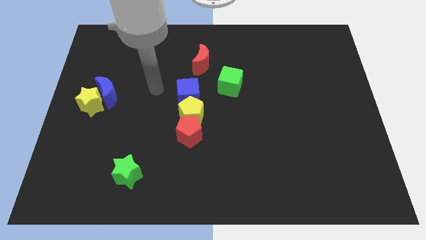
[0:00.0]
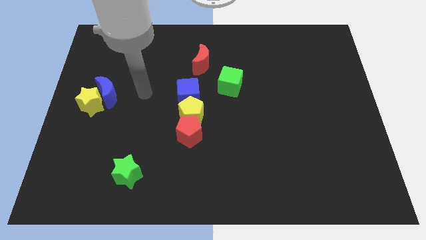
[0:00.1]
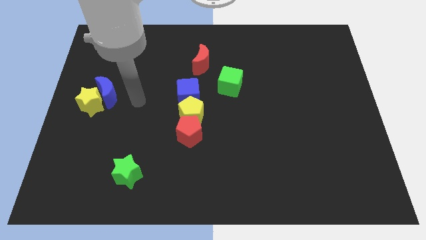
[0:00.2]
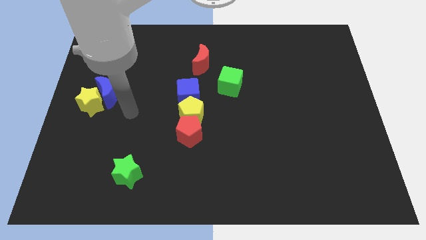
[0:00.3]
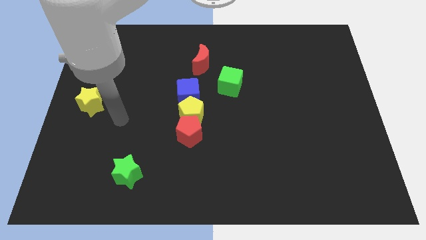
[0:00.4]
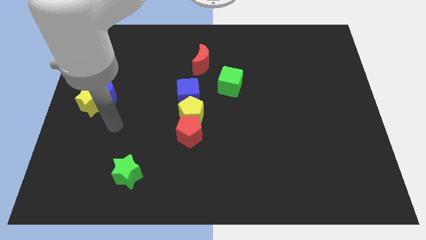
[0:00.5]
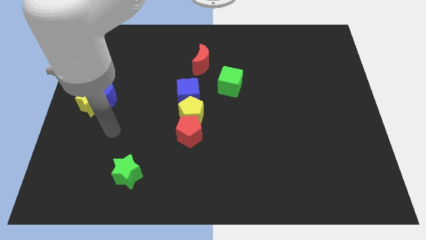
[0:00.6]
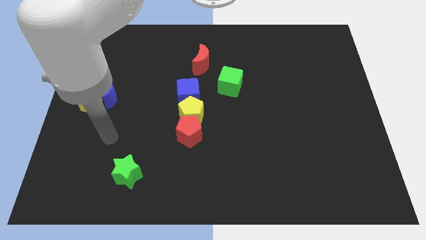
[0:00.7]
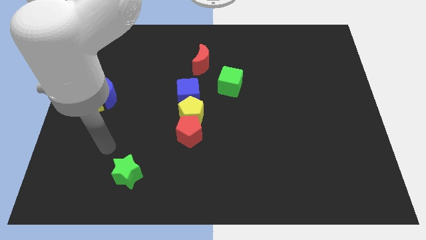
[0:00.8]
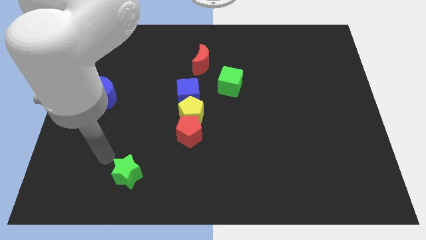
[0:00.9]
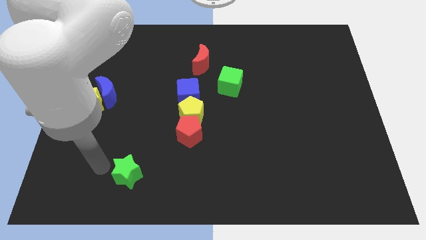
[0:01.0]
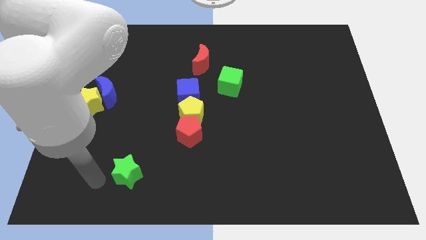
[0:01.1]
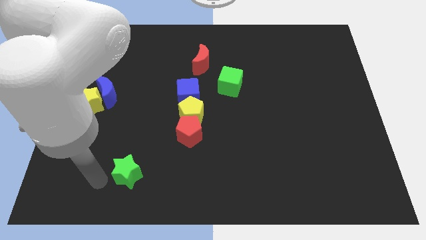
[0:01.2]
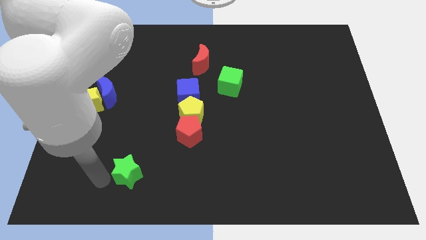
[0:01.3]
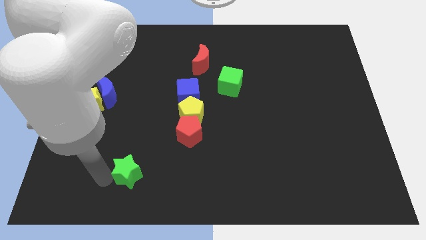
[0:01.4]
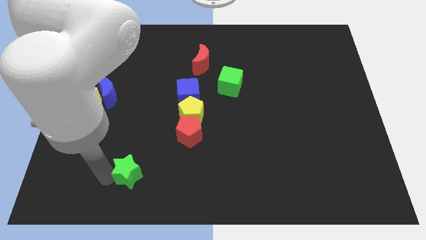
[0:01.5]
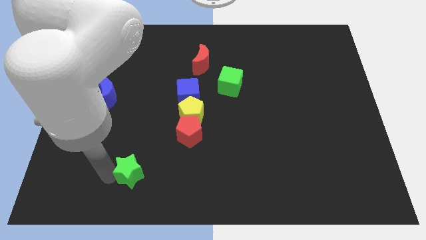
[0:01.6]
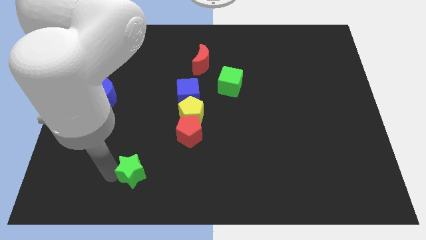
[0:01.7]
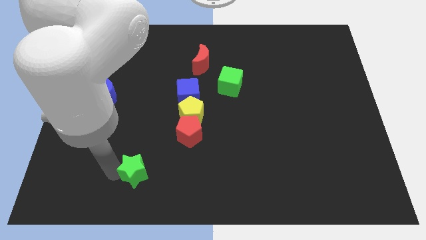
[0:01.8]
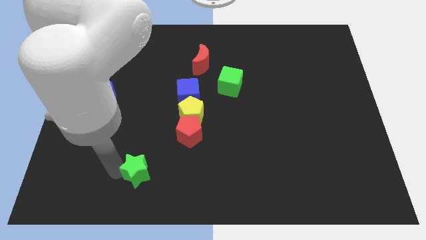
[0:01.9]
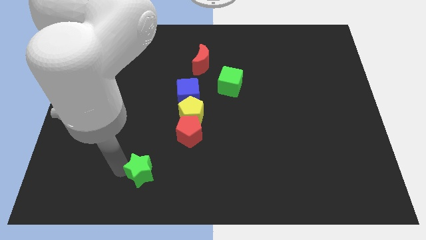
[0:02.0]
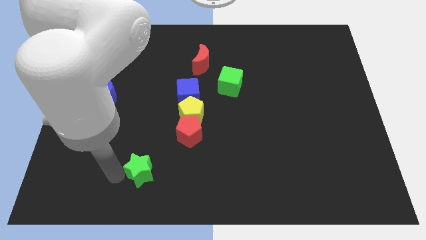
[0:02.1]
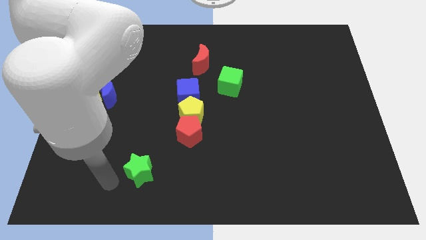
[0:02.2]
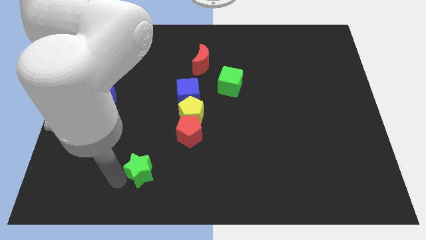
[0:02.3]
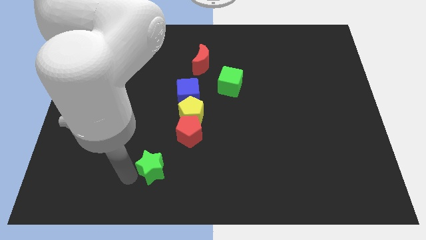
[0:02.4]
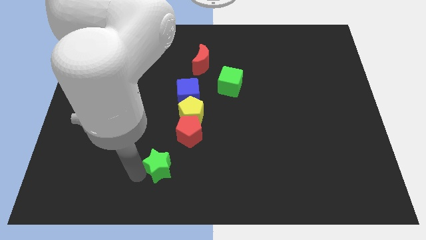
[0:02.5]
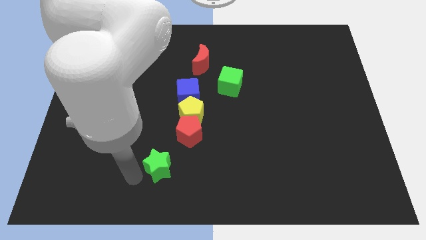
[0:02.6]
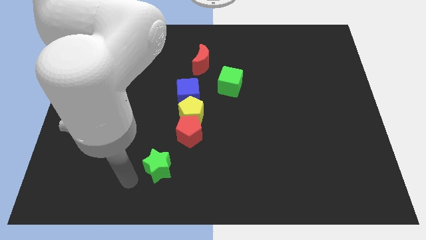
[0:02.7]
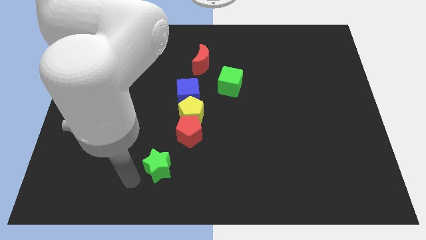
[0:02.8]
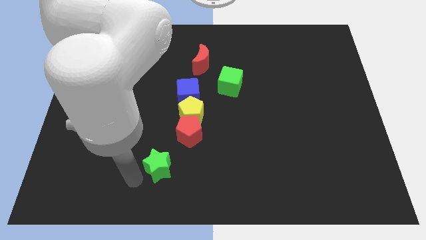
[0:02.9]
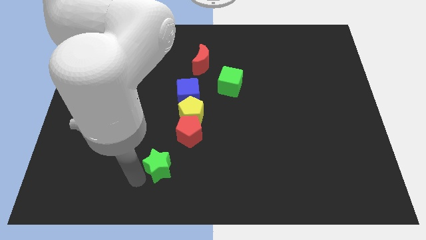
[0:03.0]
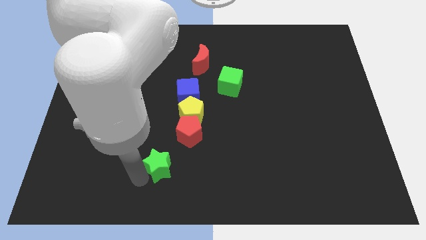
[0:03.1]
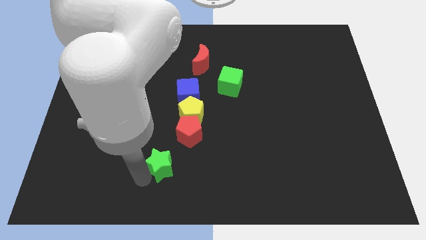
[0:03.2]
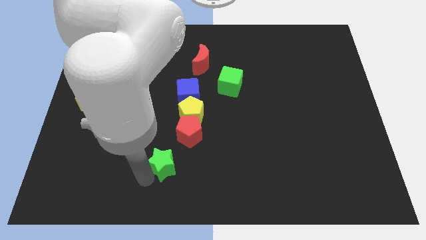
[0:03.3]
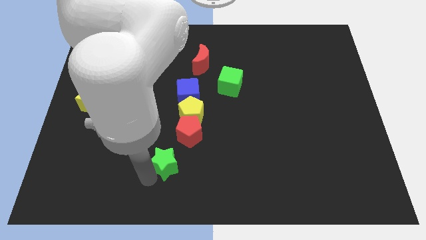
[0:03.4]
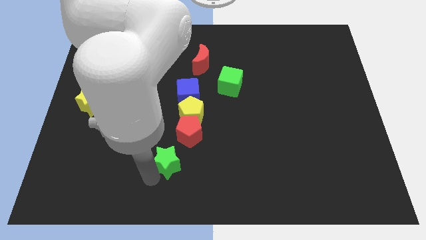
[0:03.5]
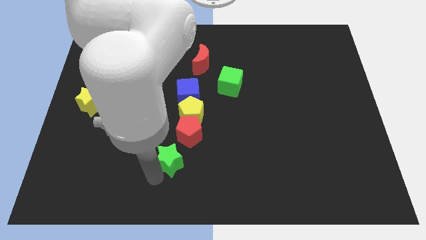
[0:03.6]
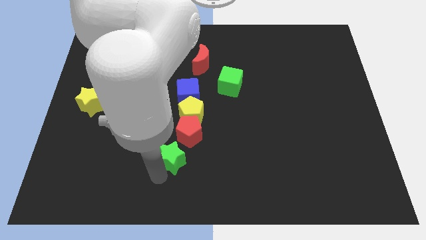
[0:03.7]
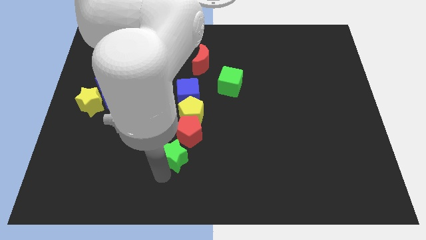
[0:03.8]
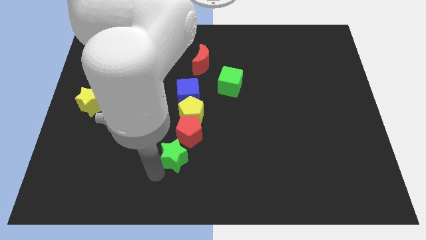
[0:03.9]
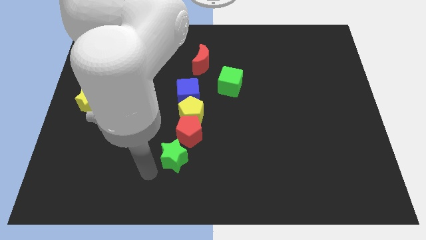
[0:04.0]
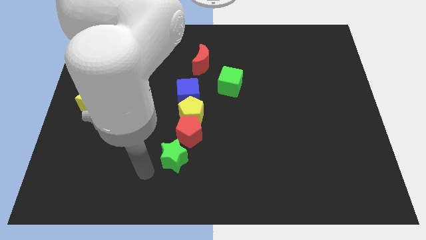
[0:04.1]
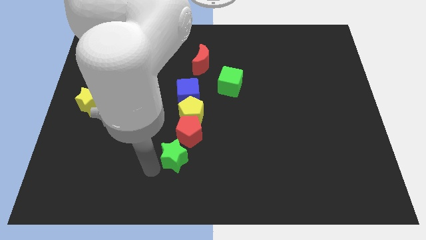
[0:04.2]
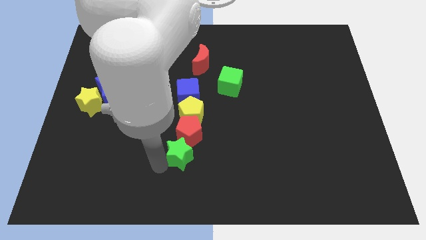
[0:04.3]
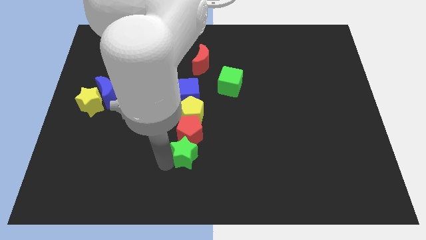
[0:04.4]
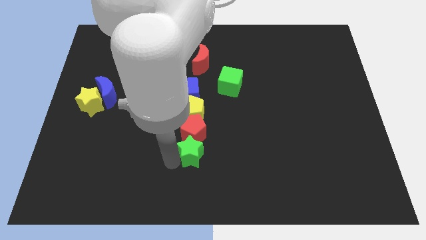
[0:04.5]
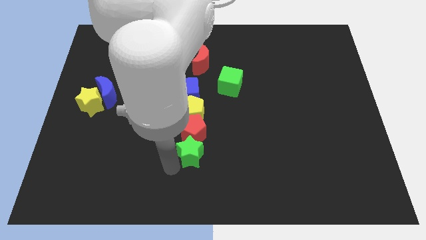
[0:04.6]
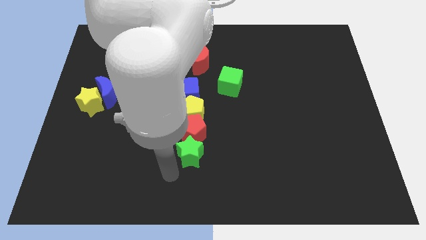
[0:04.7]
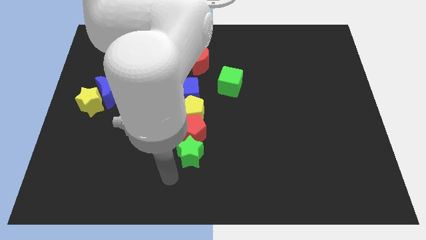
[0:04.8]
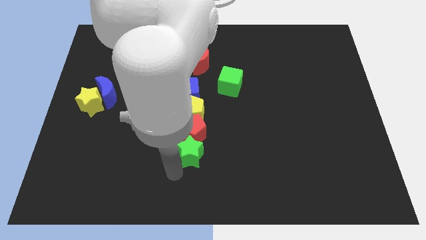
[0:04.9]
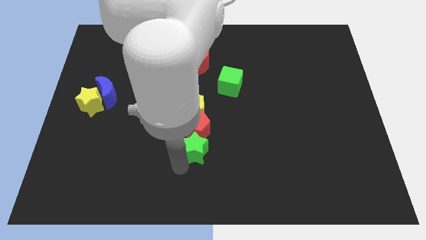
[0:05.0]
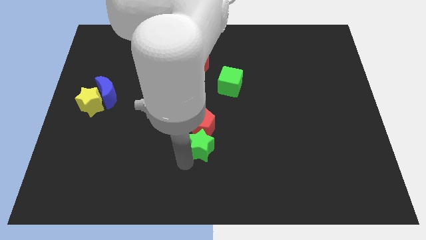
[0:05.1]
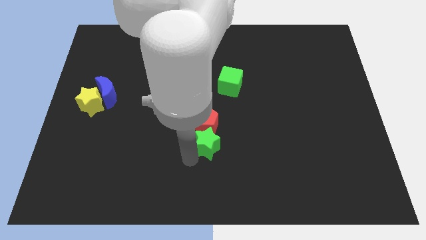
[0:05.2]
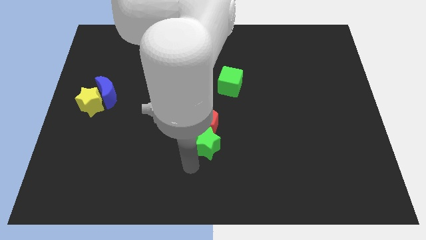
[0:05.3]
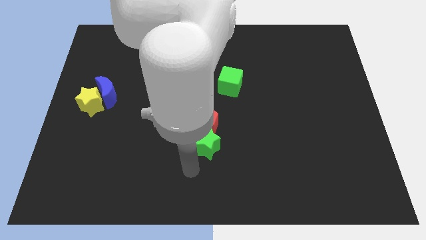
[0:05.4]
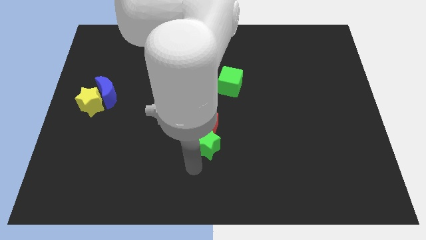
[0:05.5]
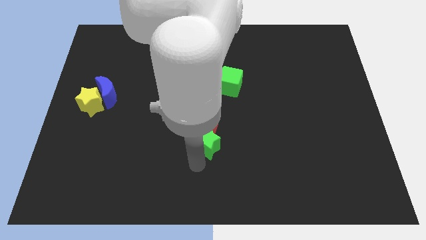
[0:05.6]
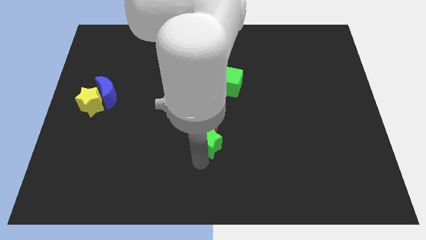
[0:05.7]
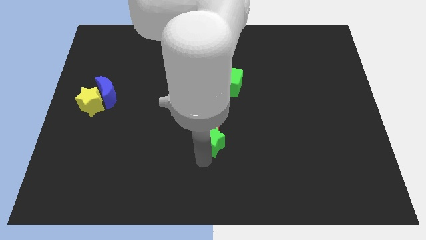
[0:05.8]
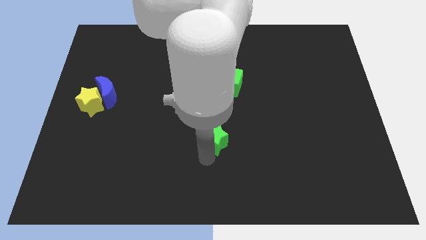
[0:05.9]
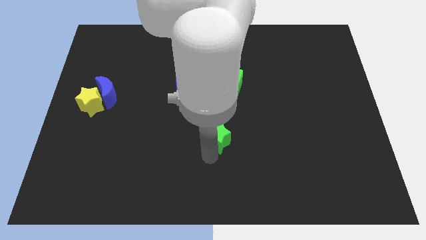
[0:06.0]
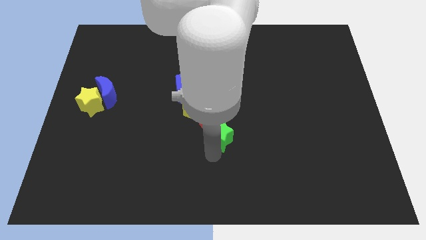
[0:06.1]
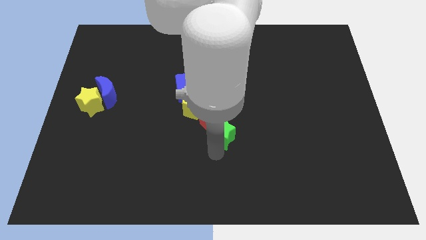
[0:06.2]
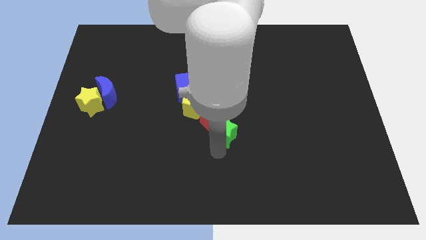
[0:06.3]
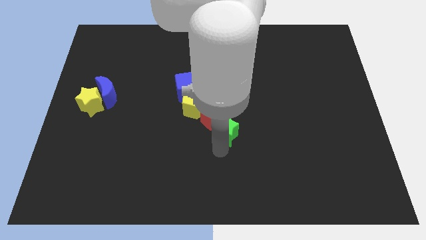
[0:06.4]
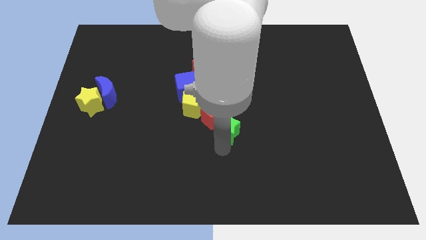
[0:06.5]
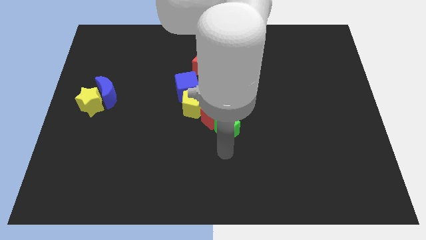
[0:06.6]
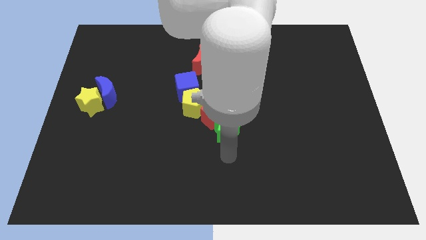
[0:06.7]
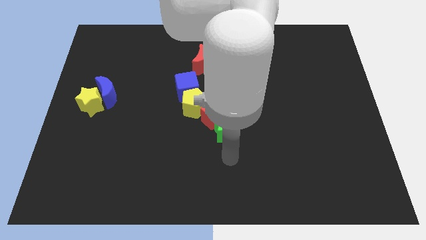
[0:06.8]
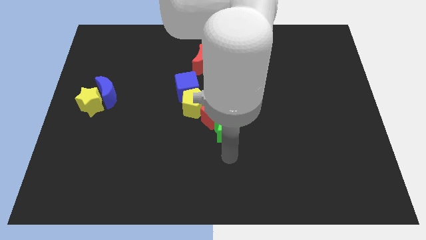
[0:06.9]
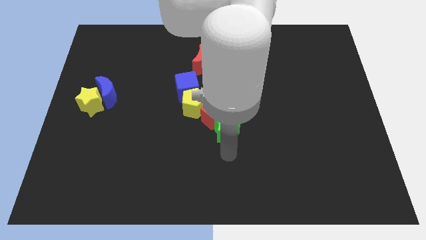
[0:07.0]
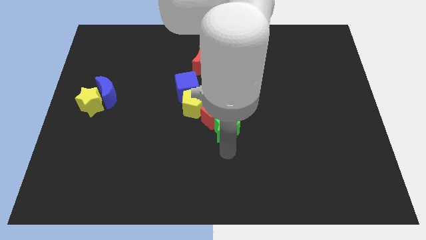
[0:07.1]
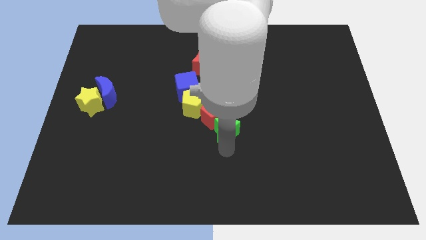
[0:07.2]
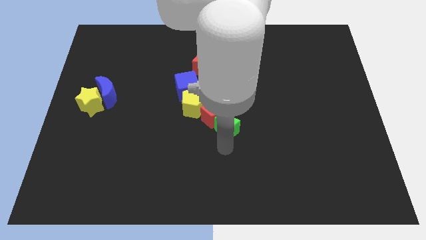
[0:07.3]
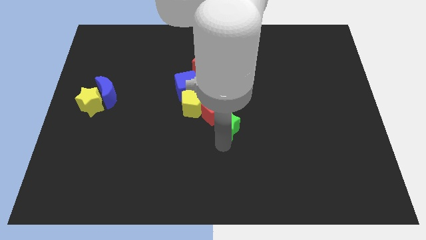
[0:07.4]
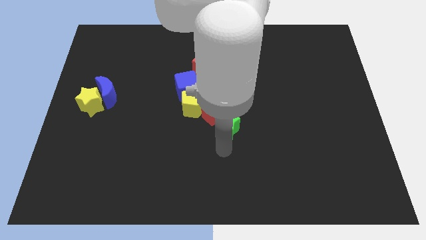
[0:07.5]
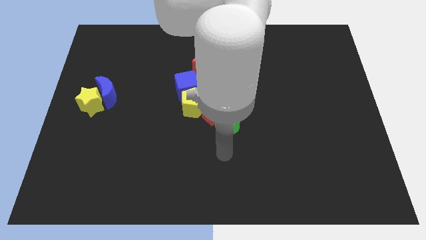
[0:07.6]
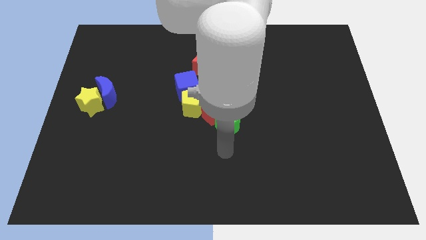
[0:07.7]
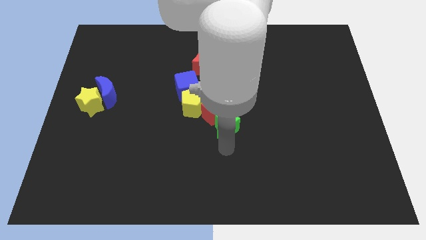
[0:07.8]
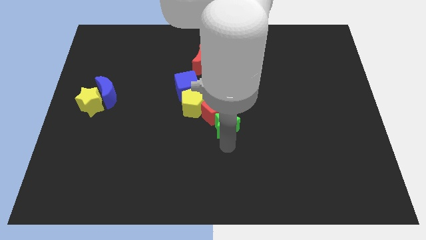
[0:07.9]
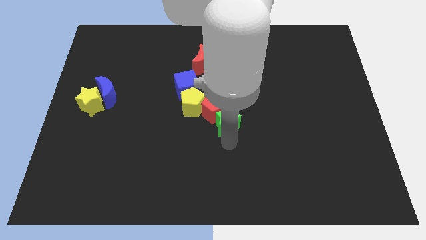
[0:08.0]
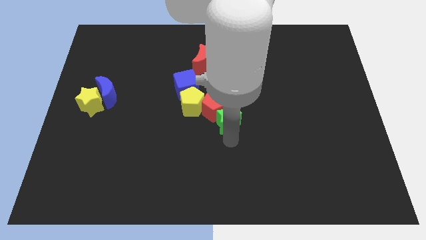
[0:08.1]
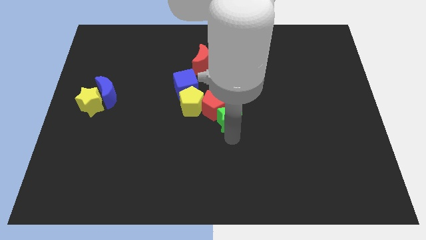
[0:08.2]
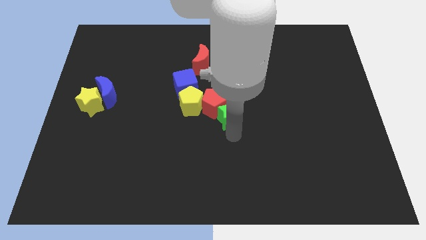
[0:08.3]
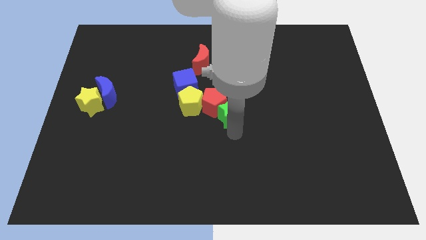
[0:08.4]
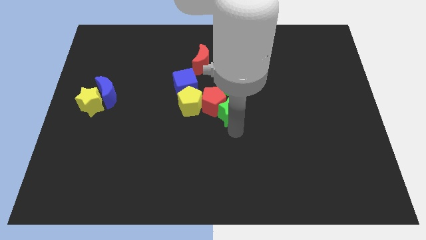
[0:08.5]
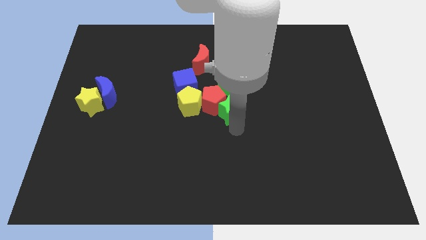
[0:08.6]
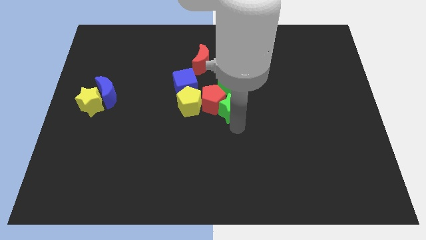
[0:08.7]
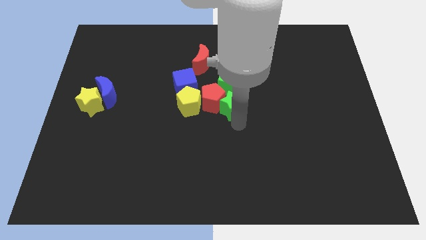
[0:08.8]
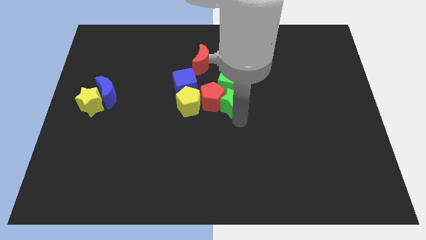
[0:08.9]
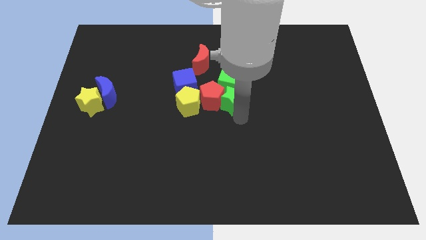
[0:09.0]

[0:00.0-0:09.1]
slide the green star towards the green cube
